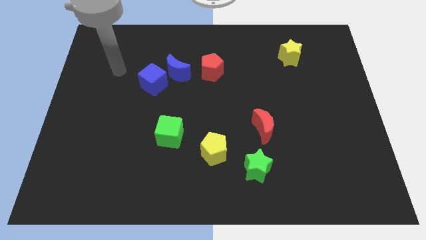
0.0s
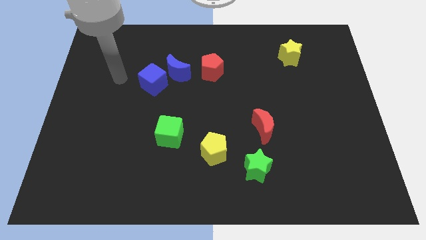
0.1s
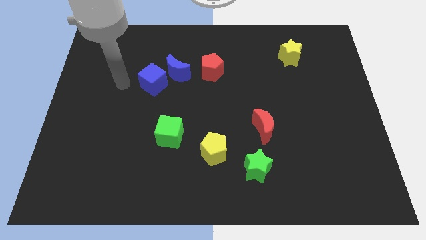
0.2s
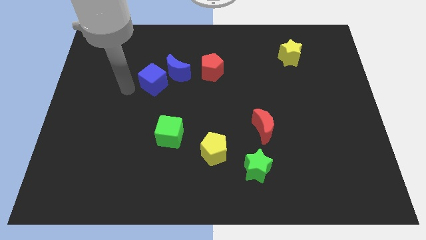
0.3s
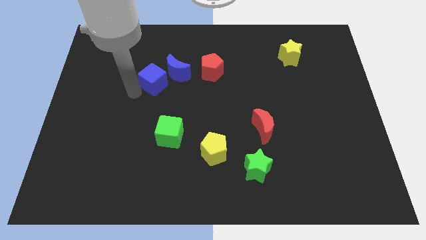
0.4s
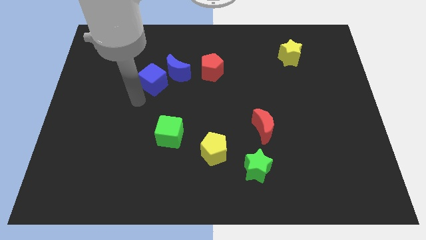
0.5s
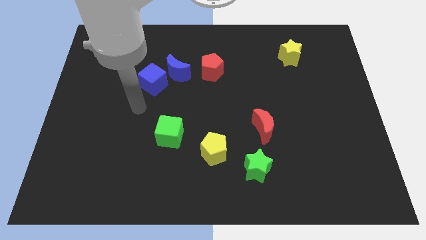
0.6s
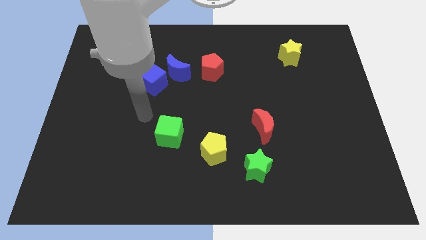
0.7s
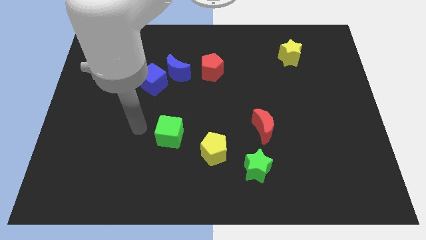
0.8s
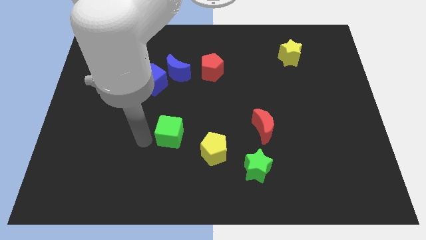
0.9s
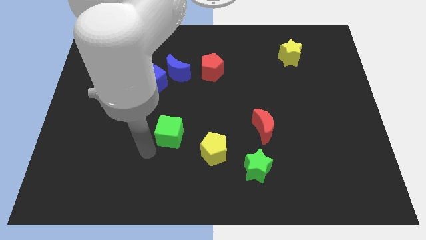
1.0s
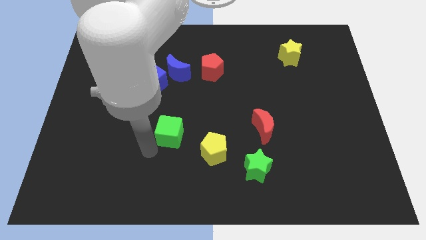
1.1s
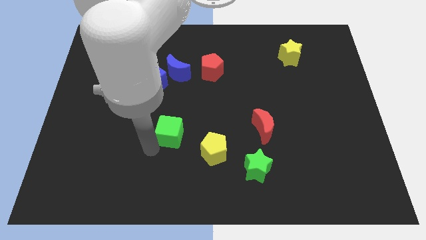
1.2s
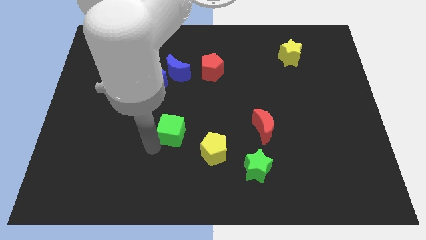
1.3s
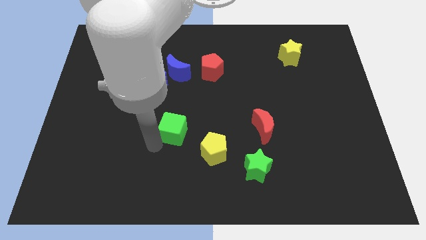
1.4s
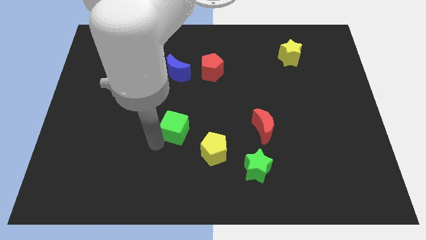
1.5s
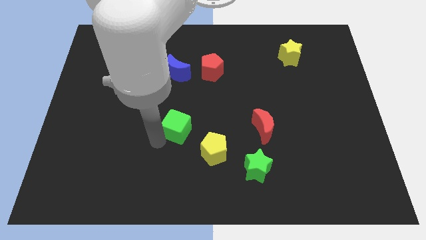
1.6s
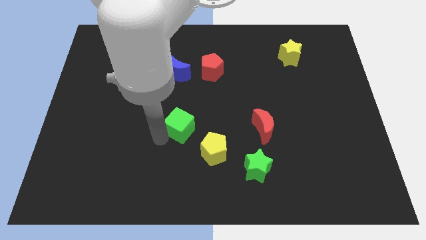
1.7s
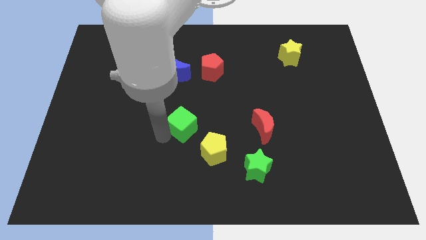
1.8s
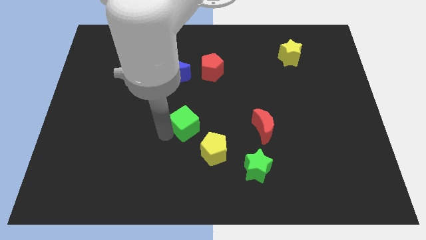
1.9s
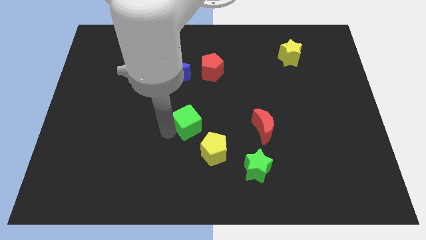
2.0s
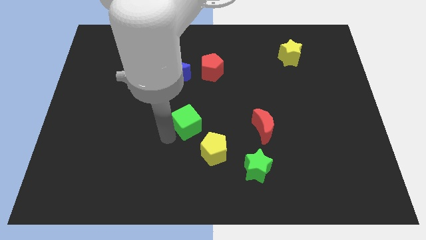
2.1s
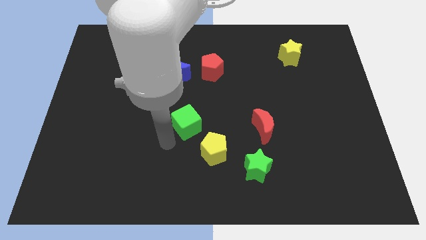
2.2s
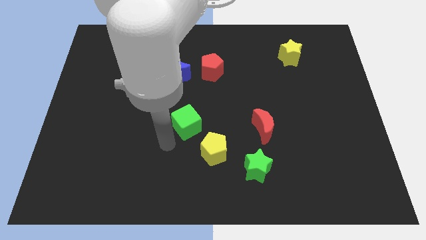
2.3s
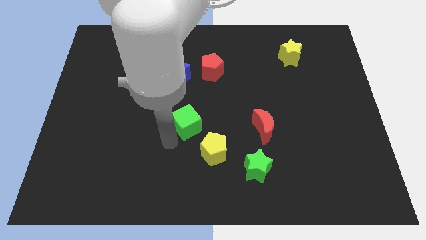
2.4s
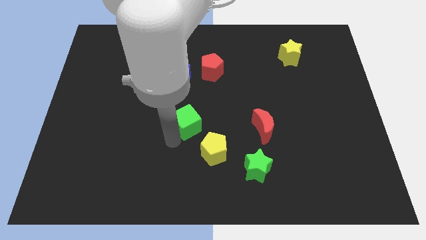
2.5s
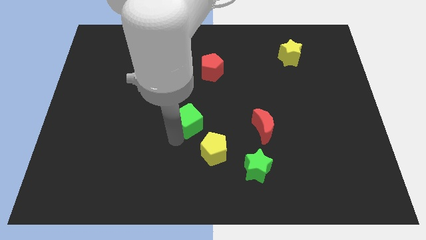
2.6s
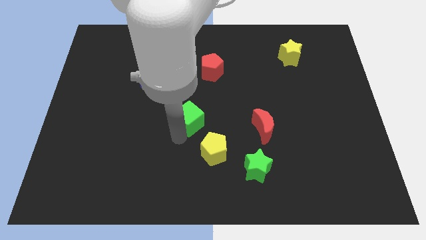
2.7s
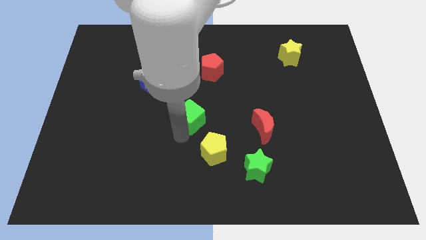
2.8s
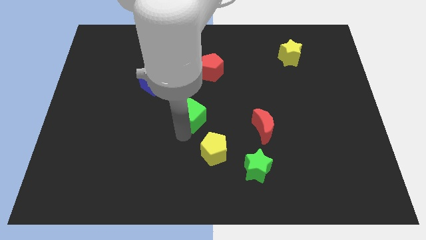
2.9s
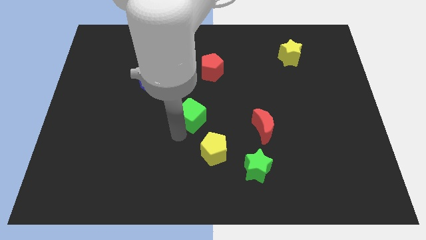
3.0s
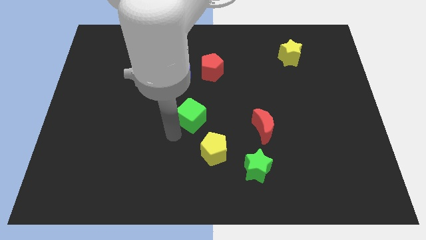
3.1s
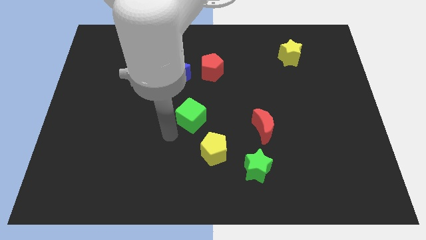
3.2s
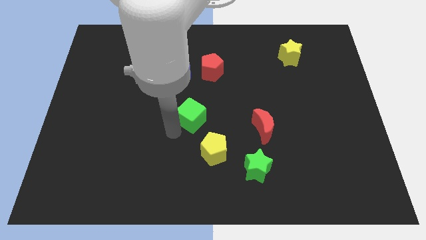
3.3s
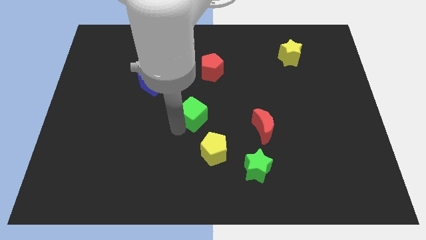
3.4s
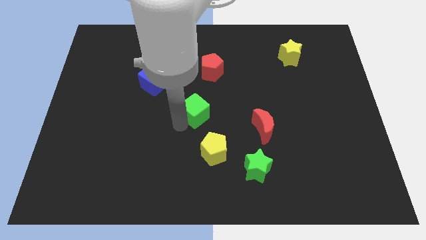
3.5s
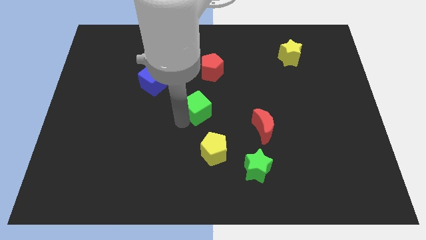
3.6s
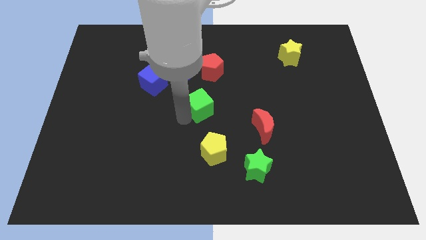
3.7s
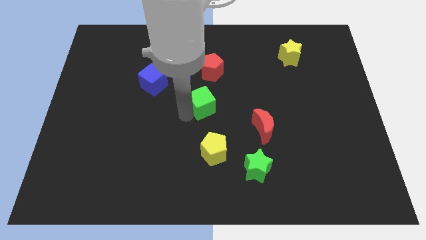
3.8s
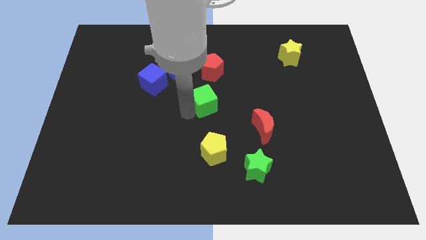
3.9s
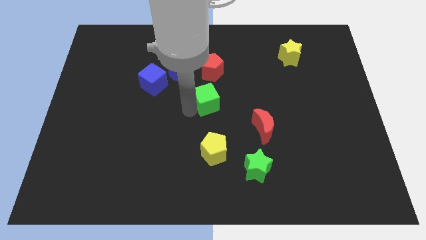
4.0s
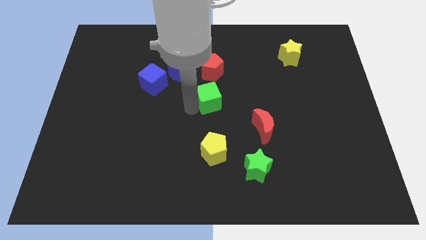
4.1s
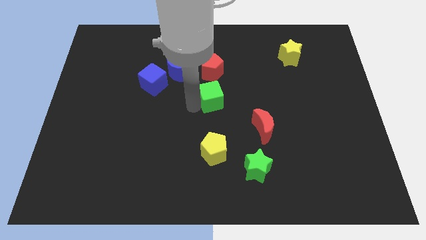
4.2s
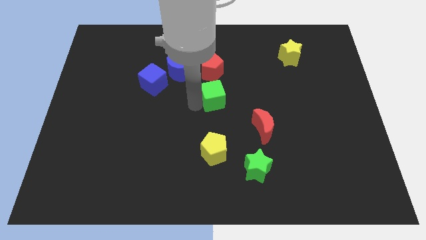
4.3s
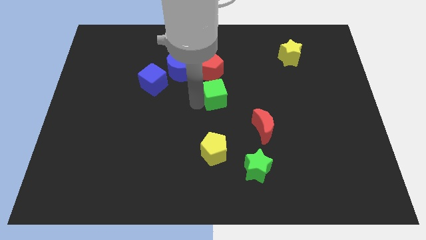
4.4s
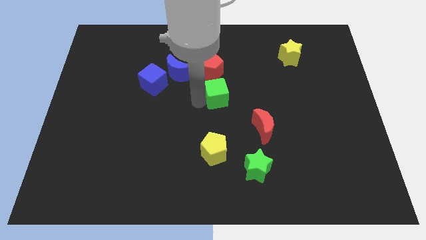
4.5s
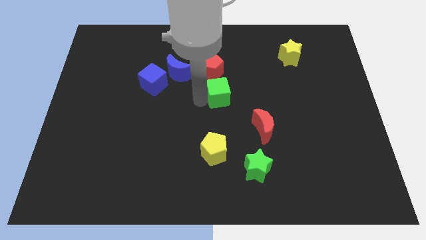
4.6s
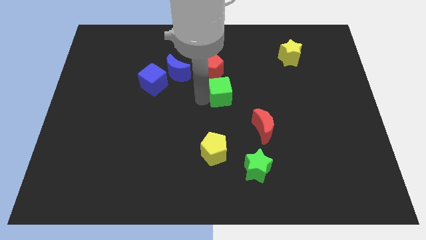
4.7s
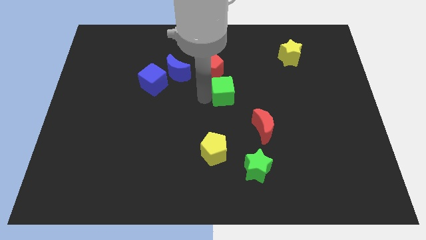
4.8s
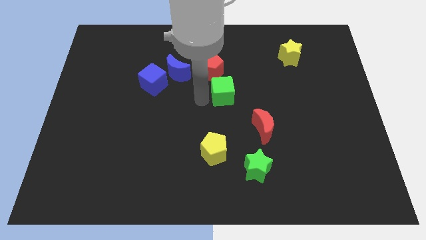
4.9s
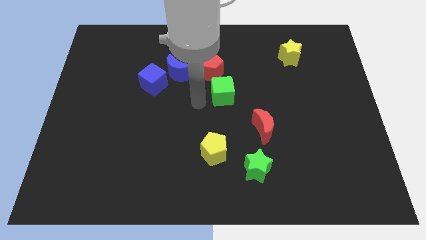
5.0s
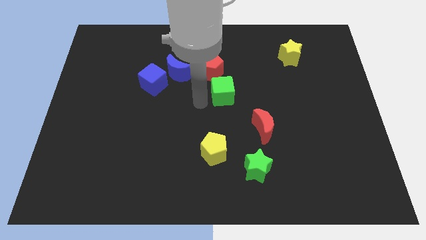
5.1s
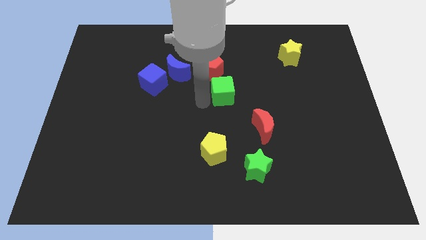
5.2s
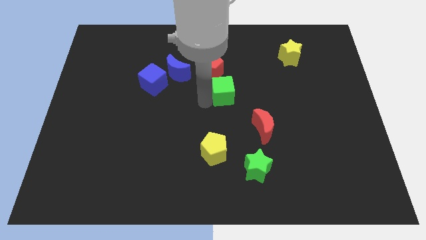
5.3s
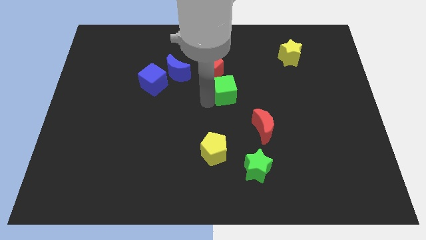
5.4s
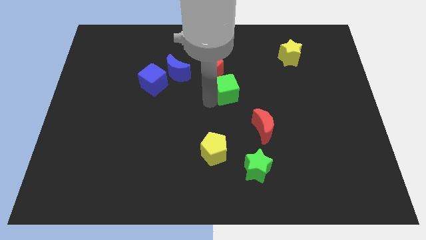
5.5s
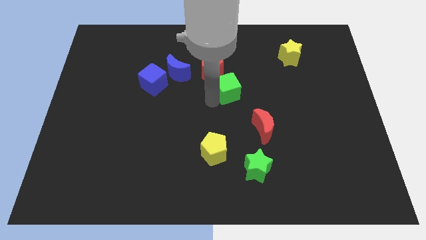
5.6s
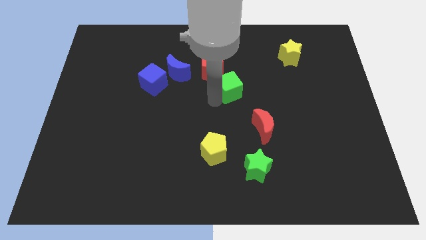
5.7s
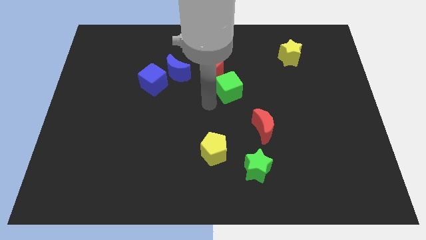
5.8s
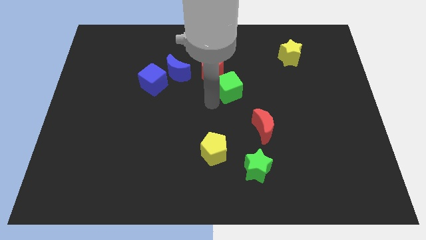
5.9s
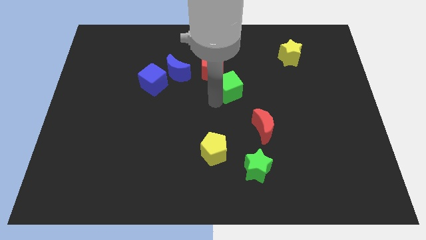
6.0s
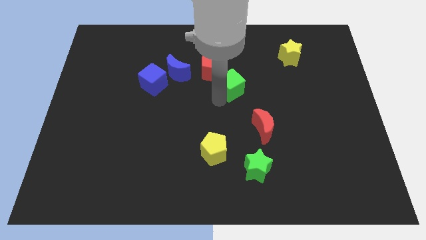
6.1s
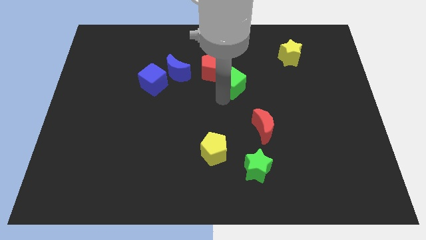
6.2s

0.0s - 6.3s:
slide the green cube upwards and right

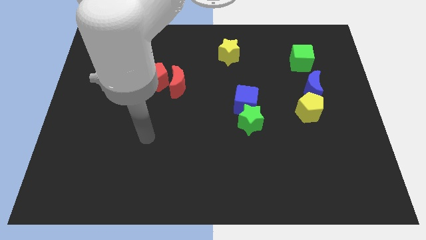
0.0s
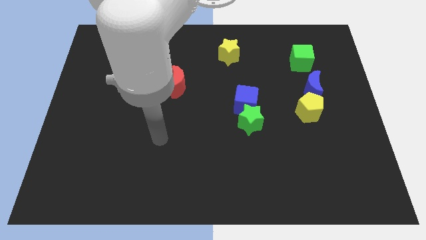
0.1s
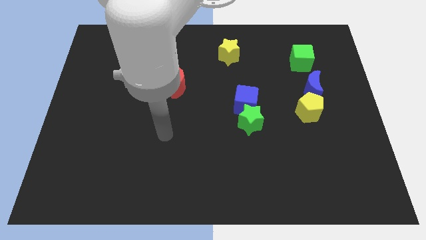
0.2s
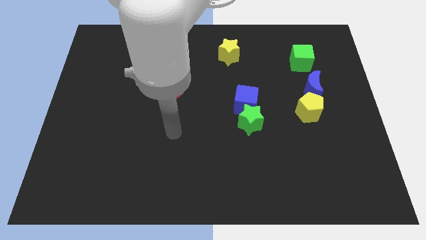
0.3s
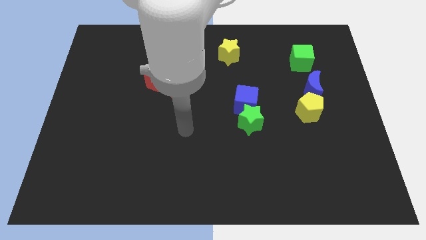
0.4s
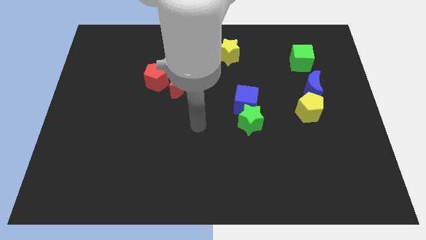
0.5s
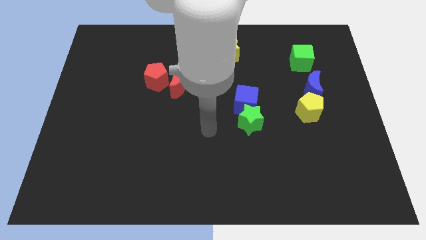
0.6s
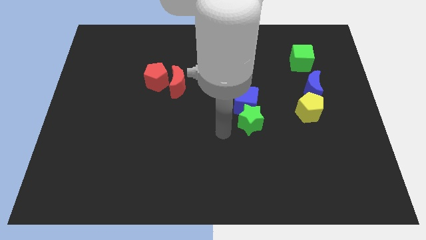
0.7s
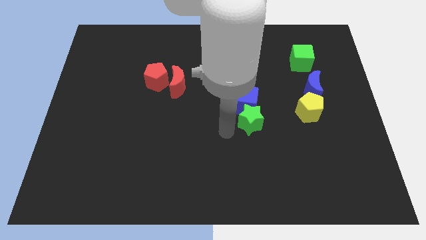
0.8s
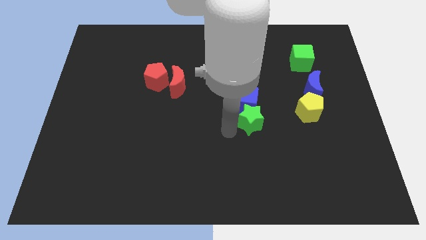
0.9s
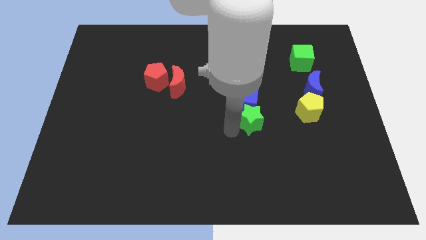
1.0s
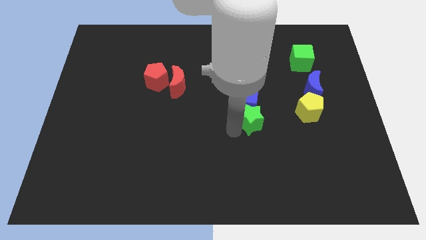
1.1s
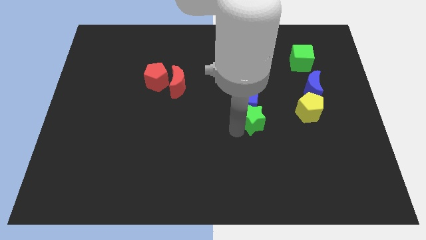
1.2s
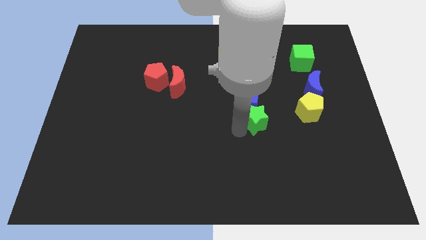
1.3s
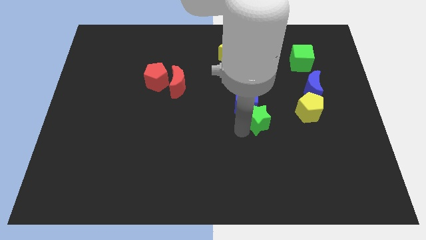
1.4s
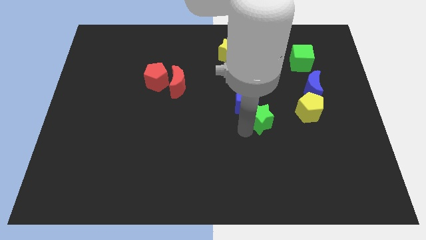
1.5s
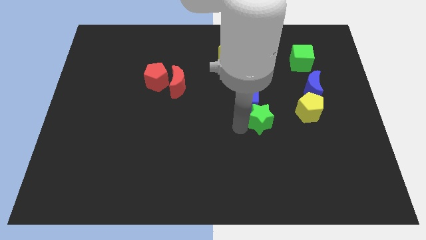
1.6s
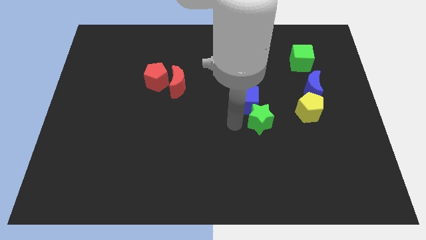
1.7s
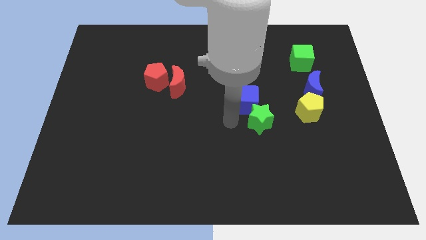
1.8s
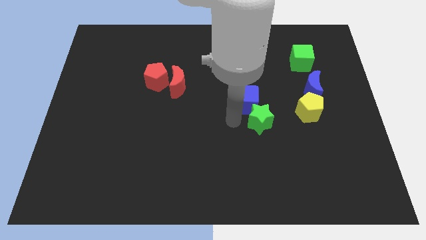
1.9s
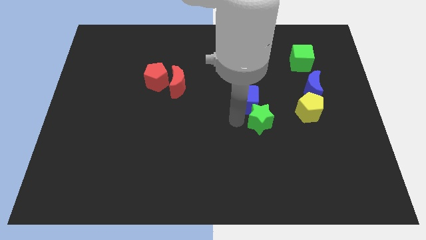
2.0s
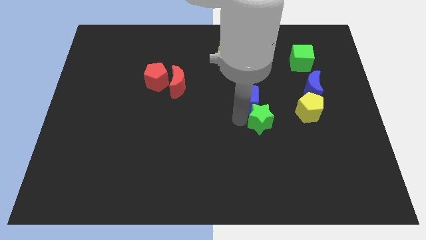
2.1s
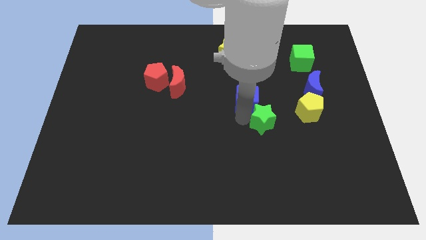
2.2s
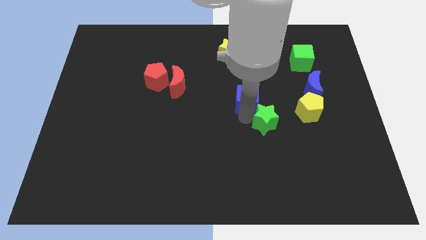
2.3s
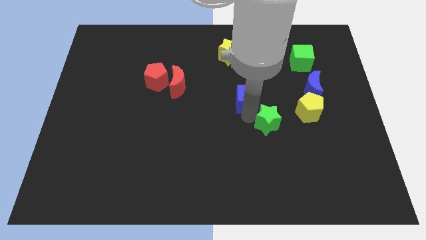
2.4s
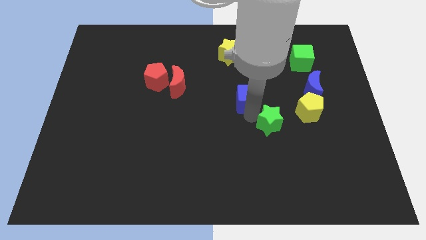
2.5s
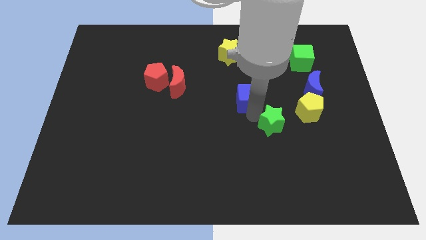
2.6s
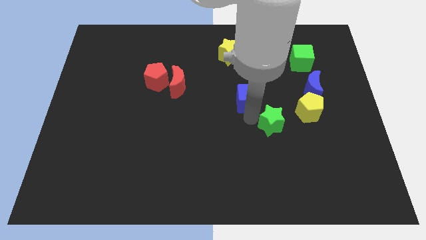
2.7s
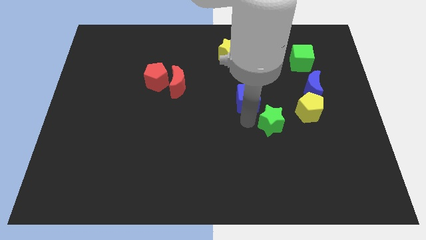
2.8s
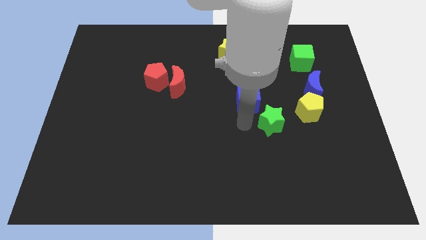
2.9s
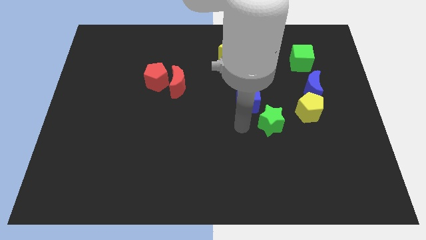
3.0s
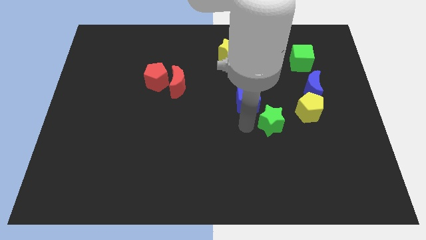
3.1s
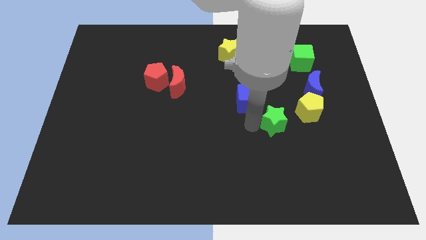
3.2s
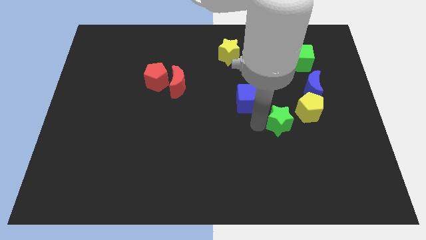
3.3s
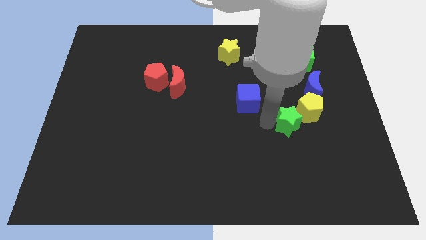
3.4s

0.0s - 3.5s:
slide the green star right a little bit
